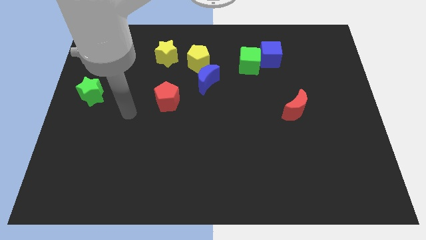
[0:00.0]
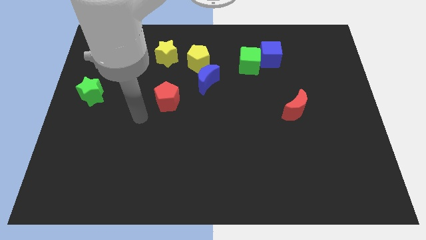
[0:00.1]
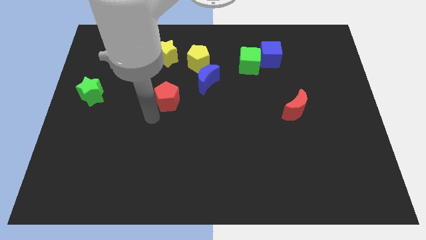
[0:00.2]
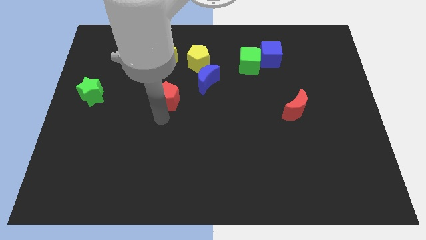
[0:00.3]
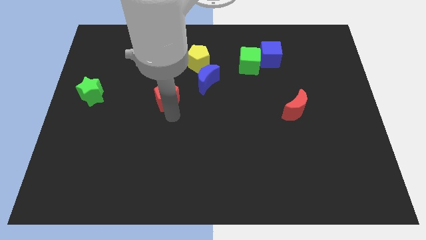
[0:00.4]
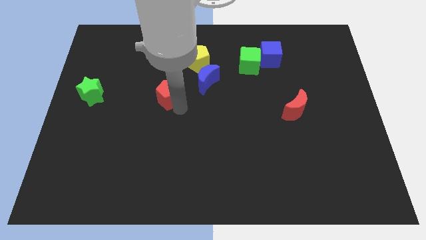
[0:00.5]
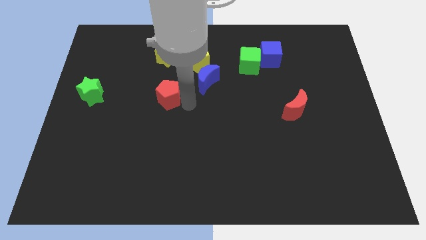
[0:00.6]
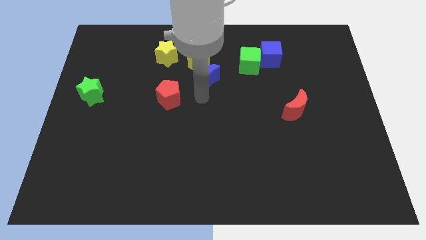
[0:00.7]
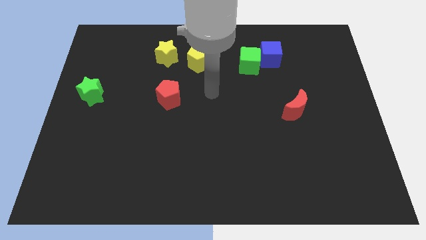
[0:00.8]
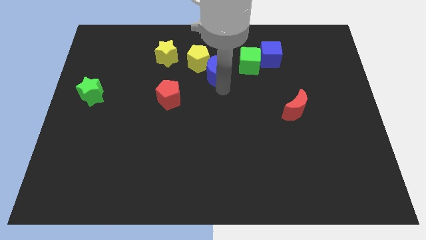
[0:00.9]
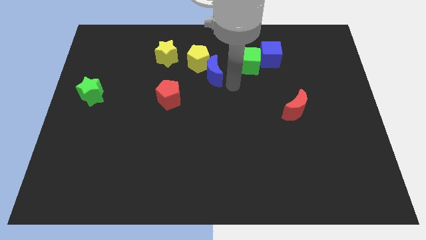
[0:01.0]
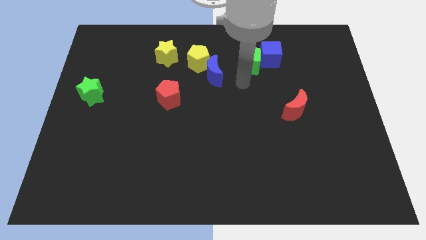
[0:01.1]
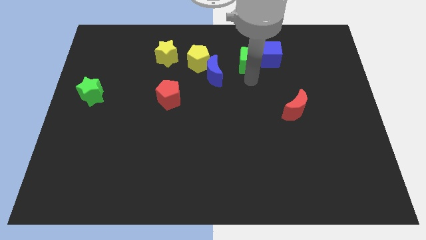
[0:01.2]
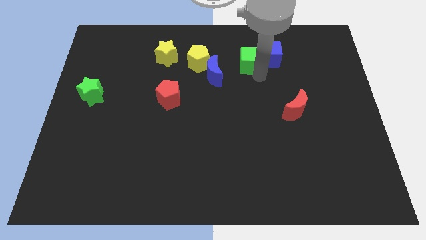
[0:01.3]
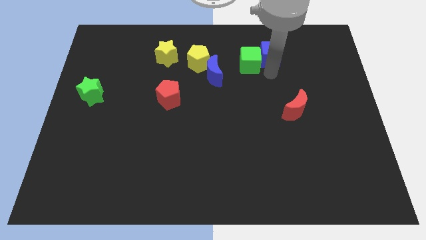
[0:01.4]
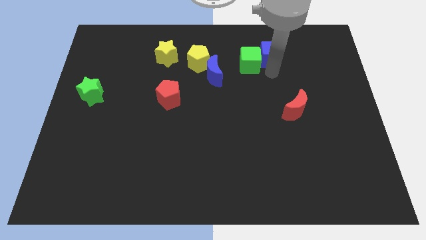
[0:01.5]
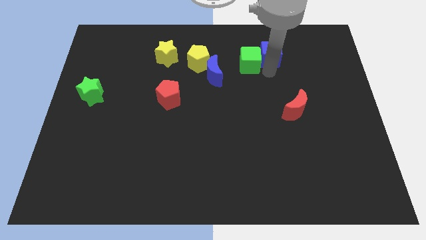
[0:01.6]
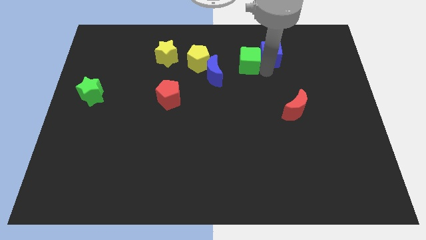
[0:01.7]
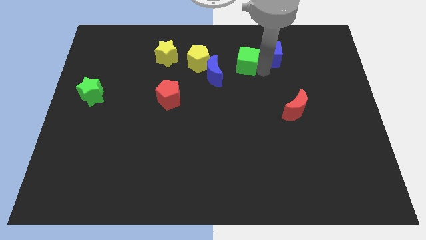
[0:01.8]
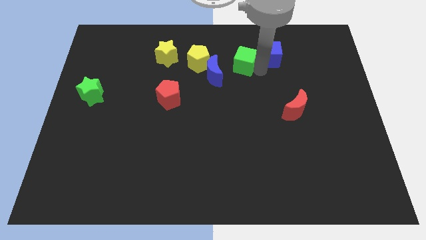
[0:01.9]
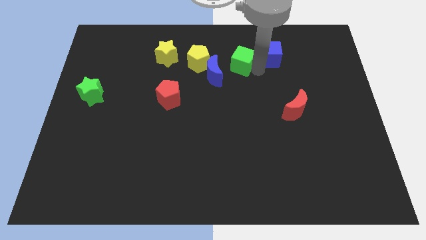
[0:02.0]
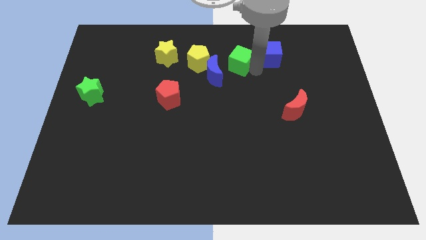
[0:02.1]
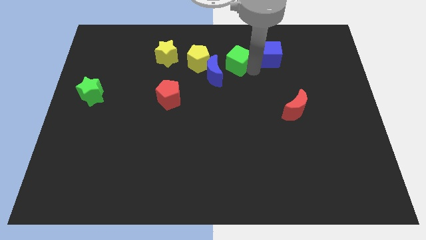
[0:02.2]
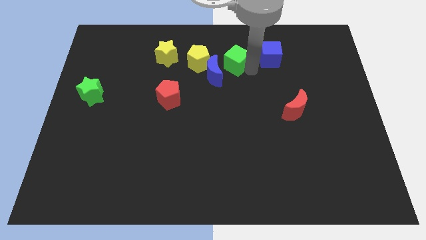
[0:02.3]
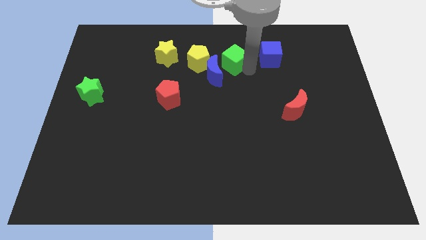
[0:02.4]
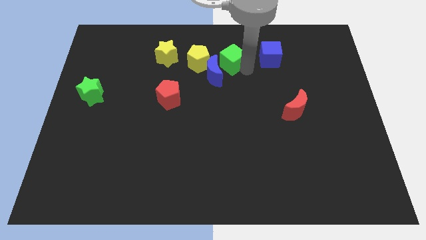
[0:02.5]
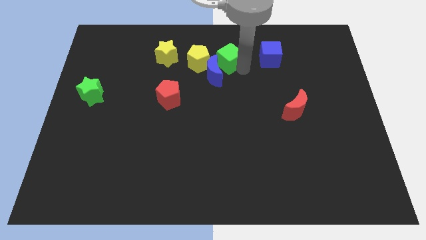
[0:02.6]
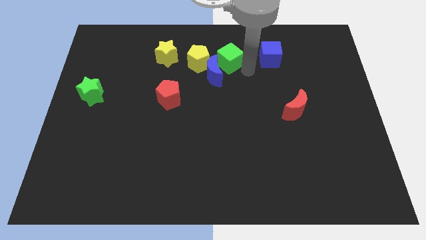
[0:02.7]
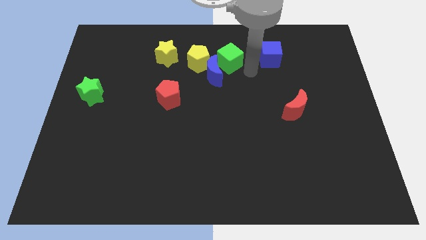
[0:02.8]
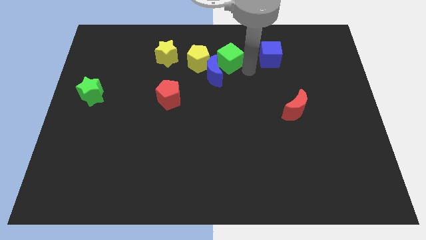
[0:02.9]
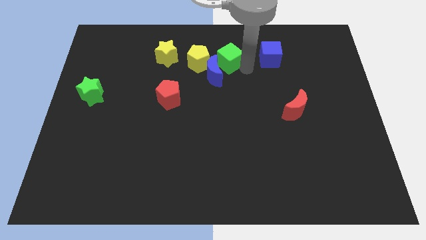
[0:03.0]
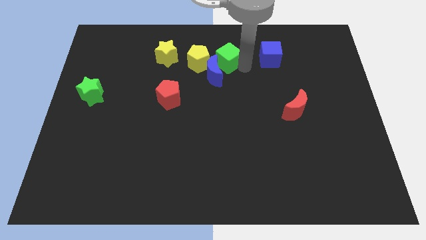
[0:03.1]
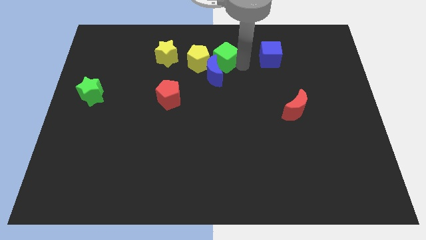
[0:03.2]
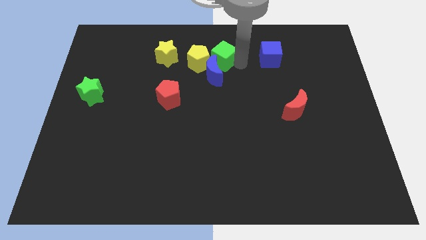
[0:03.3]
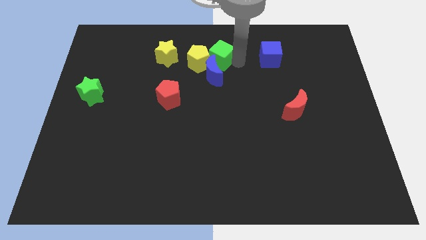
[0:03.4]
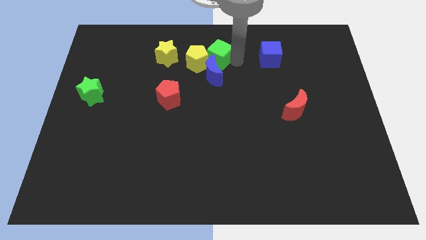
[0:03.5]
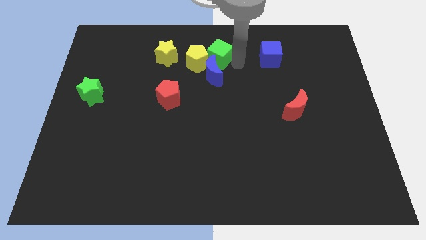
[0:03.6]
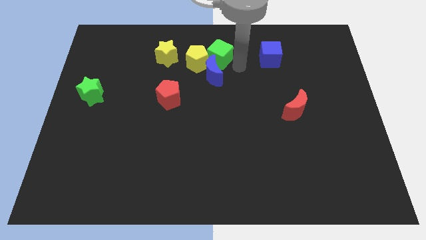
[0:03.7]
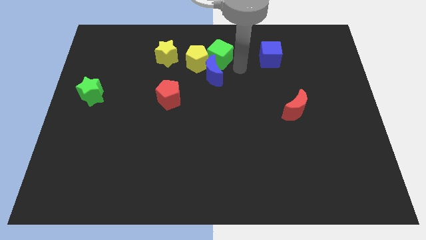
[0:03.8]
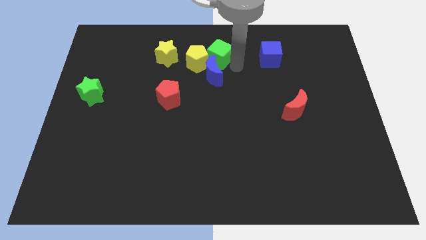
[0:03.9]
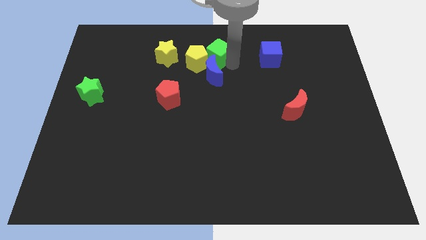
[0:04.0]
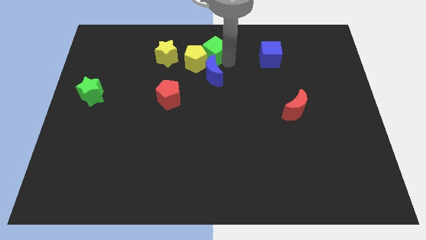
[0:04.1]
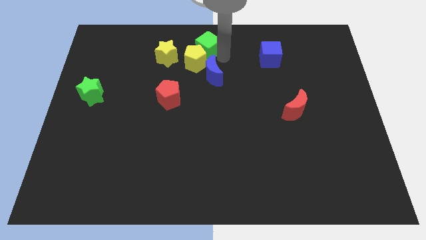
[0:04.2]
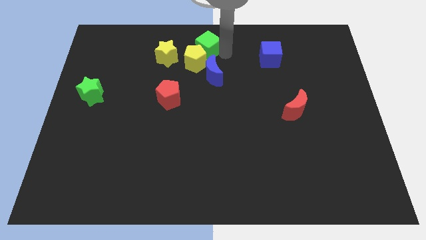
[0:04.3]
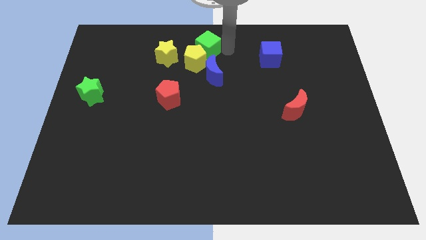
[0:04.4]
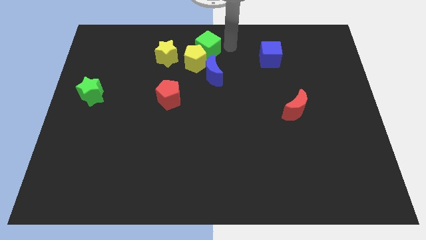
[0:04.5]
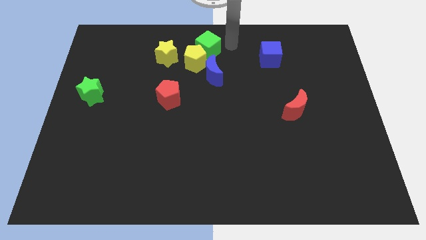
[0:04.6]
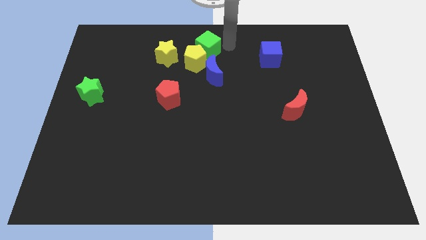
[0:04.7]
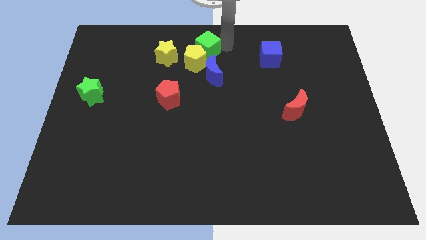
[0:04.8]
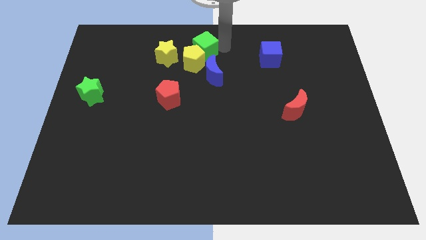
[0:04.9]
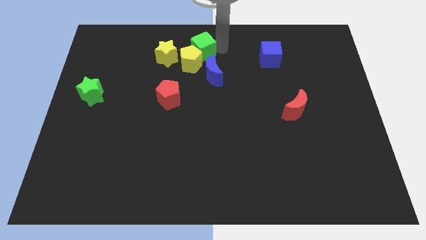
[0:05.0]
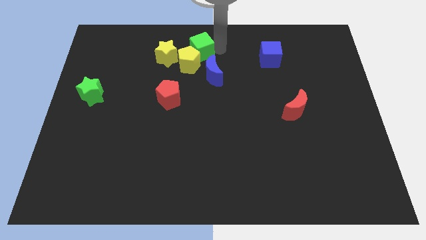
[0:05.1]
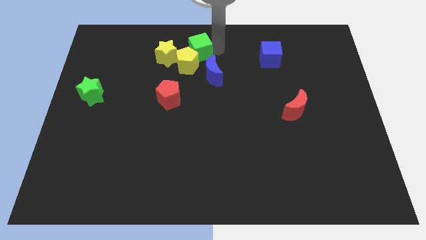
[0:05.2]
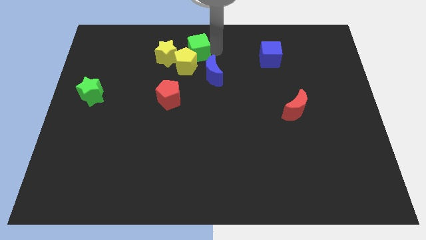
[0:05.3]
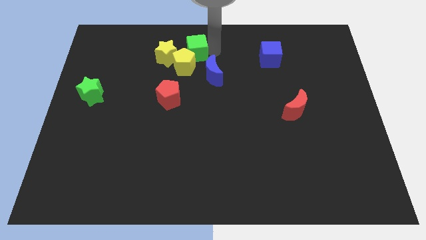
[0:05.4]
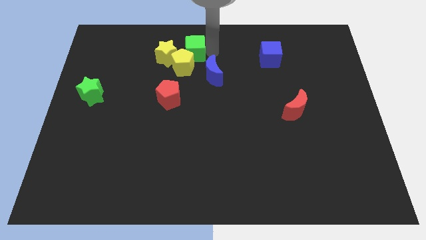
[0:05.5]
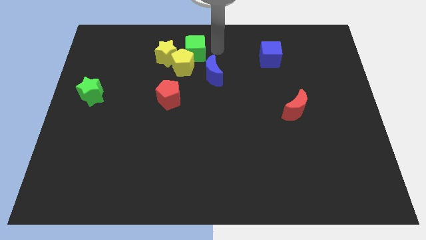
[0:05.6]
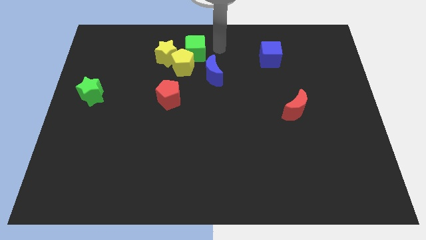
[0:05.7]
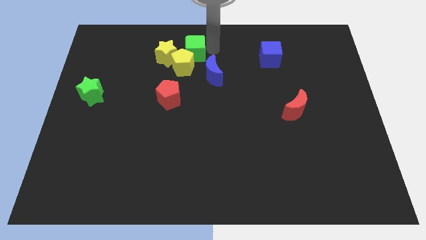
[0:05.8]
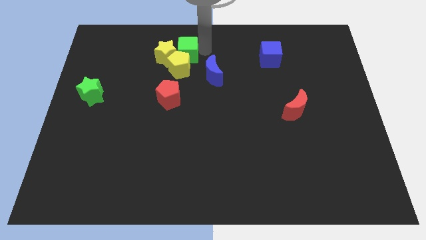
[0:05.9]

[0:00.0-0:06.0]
put the green cube to the yellow star

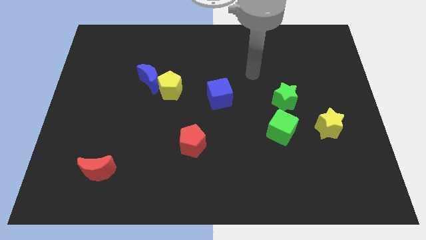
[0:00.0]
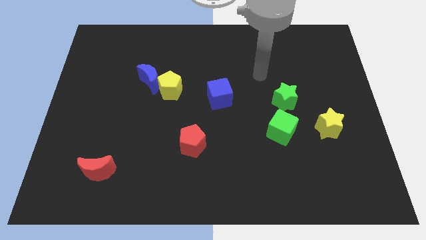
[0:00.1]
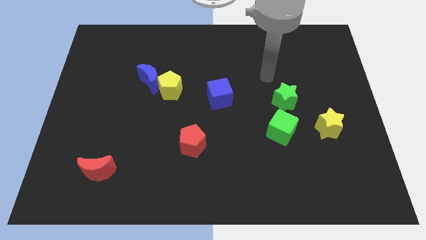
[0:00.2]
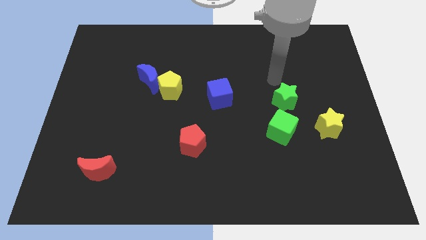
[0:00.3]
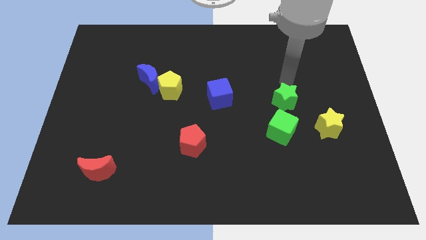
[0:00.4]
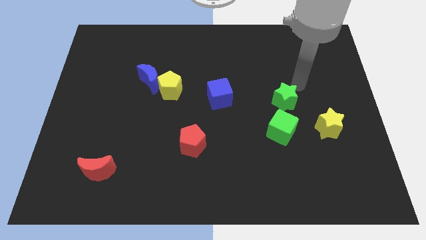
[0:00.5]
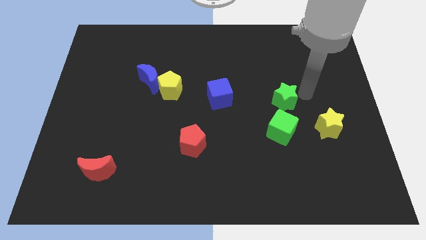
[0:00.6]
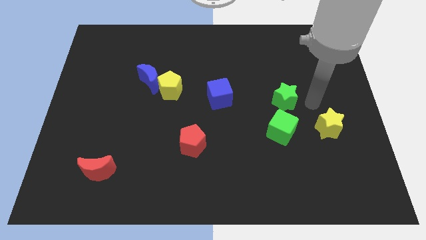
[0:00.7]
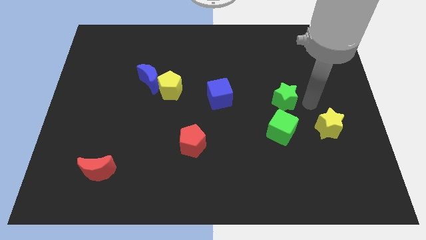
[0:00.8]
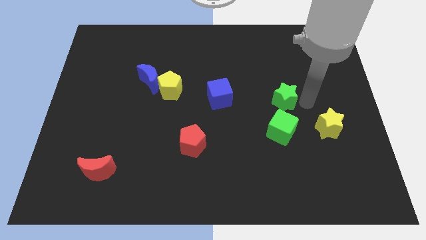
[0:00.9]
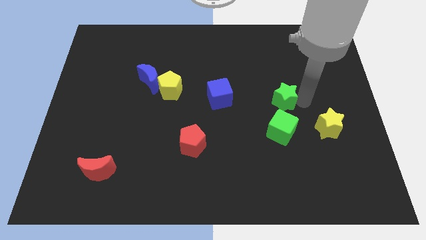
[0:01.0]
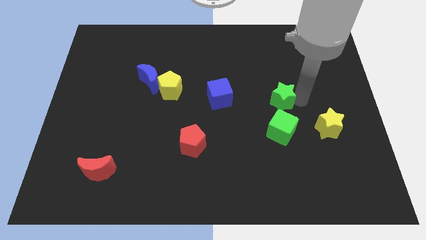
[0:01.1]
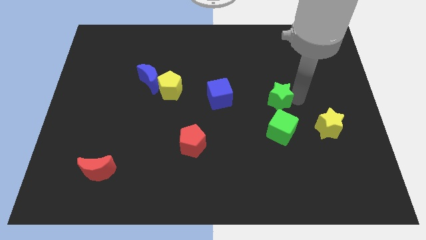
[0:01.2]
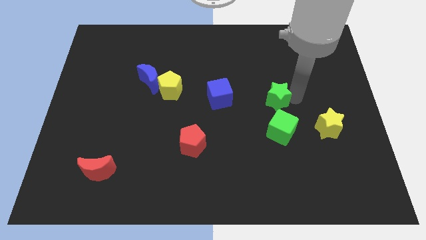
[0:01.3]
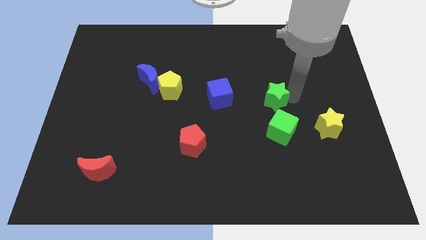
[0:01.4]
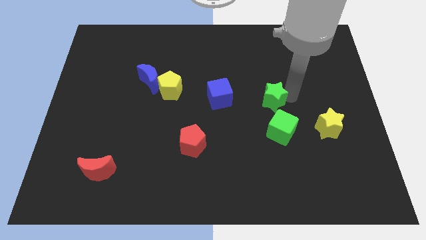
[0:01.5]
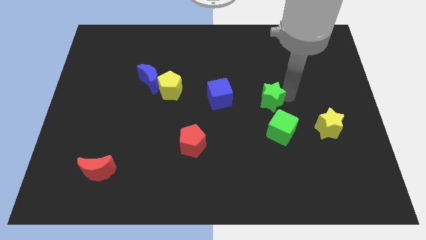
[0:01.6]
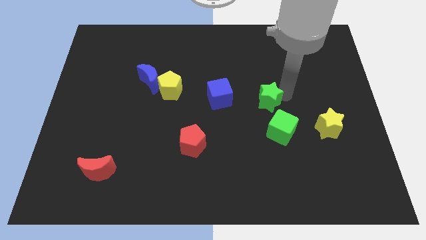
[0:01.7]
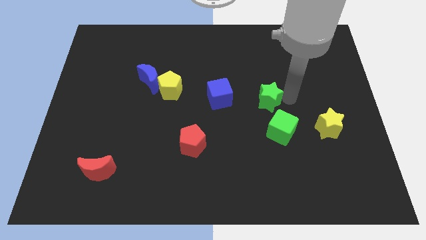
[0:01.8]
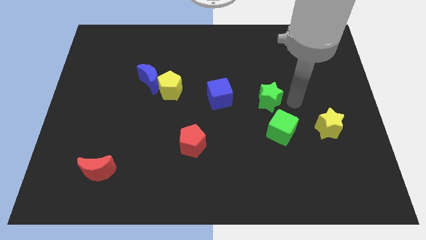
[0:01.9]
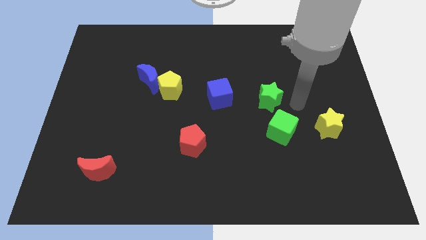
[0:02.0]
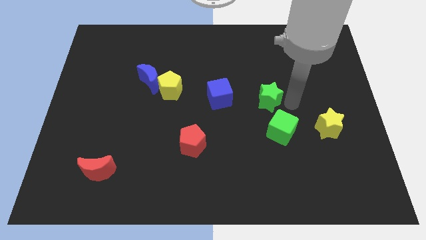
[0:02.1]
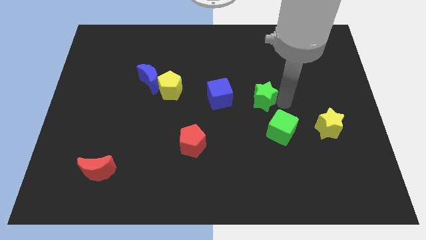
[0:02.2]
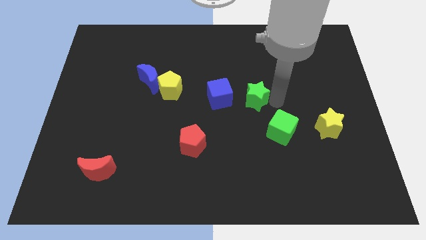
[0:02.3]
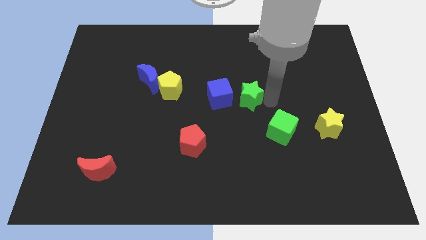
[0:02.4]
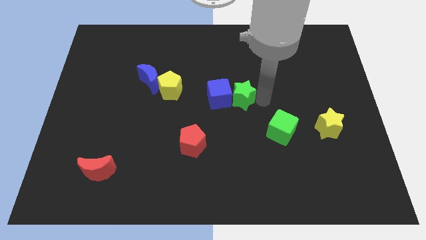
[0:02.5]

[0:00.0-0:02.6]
push the green star to the blue cube
